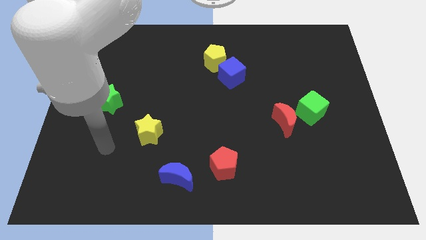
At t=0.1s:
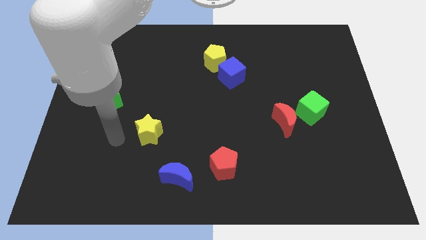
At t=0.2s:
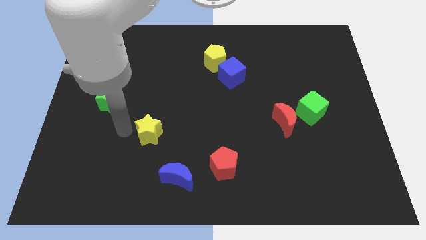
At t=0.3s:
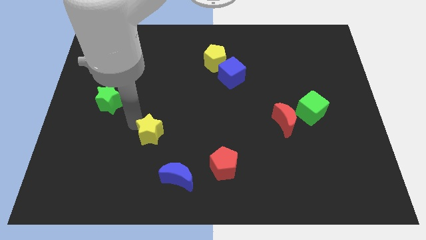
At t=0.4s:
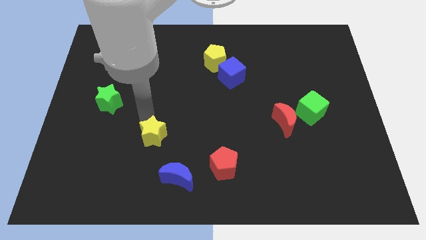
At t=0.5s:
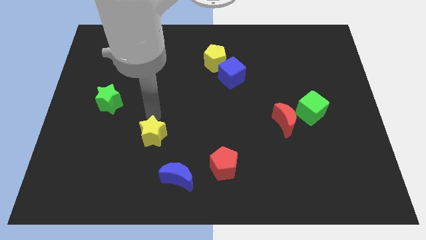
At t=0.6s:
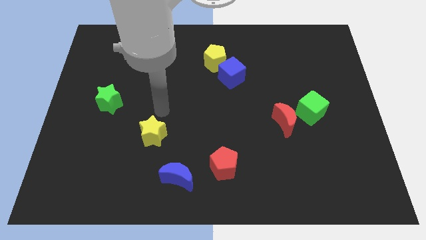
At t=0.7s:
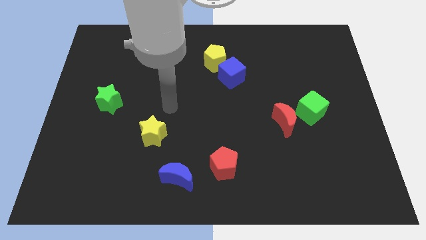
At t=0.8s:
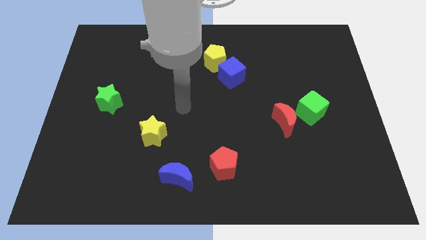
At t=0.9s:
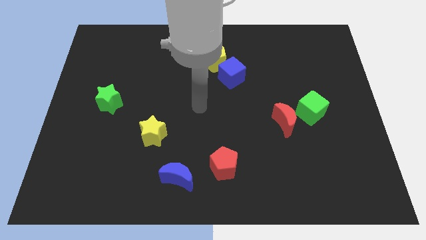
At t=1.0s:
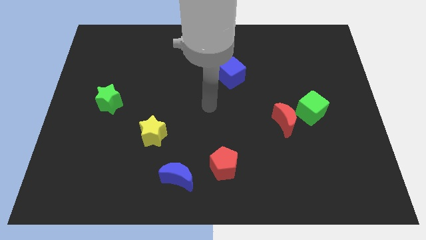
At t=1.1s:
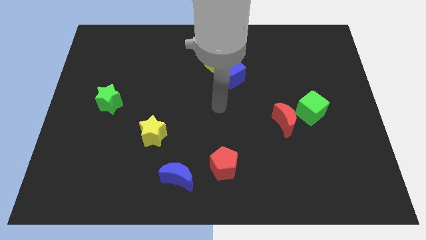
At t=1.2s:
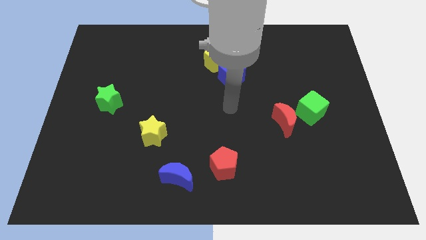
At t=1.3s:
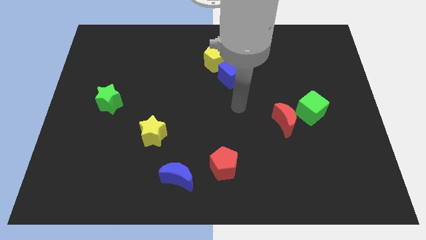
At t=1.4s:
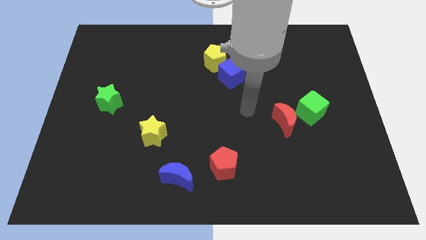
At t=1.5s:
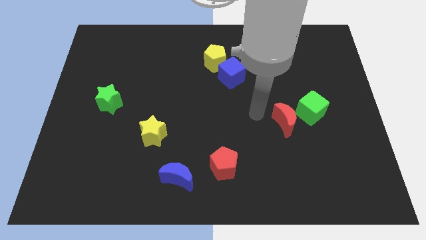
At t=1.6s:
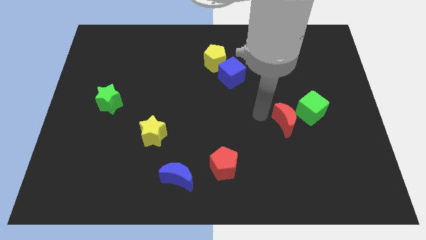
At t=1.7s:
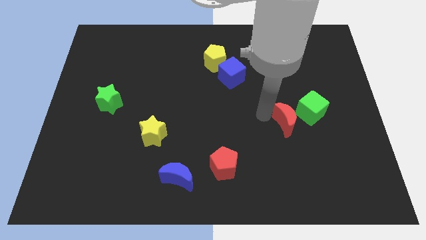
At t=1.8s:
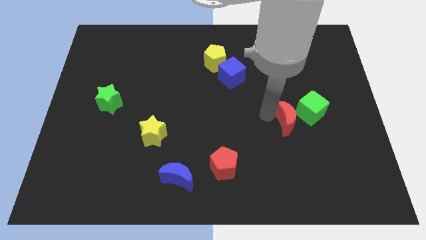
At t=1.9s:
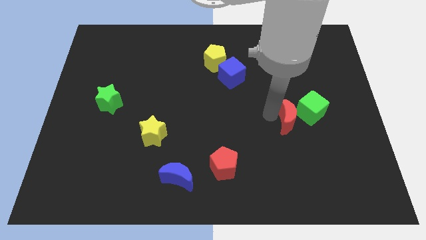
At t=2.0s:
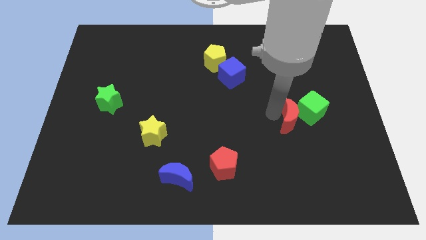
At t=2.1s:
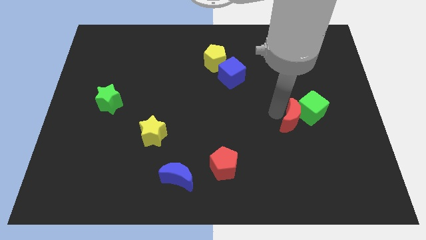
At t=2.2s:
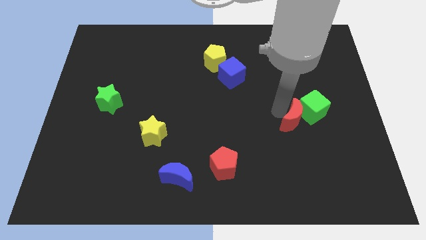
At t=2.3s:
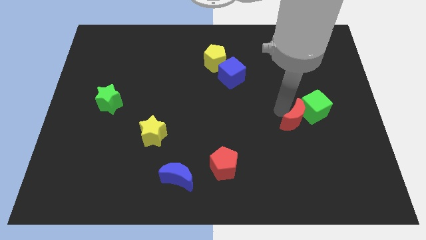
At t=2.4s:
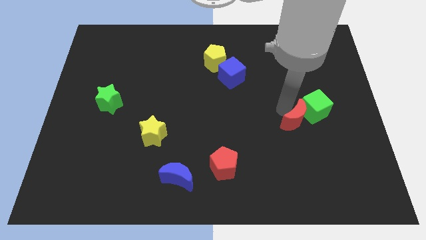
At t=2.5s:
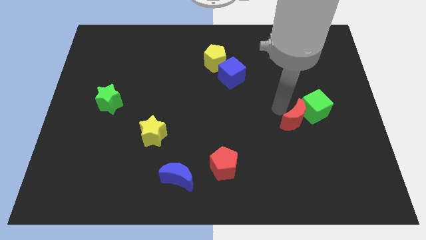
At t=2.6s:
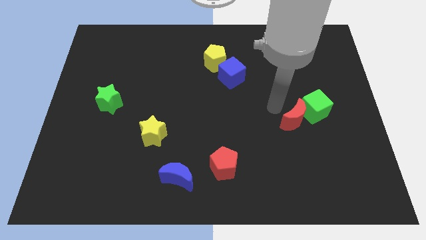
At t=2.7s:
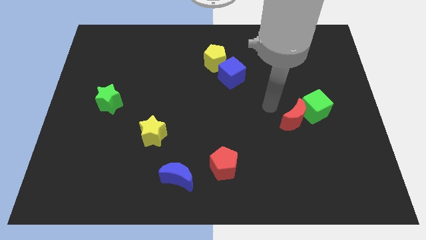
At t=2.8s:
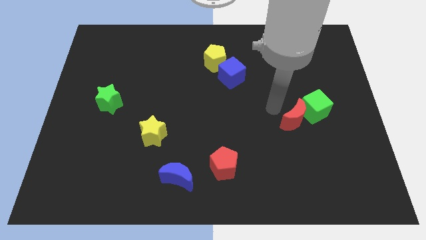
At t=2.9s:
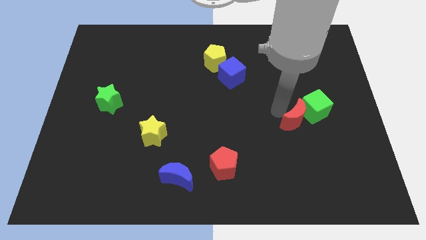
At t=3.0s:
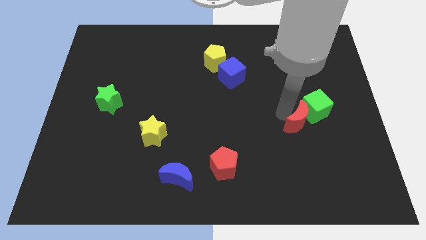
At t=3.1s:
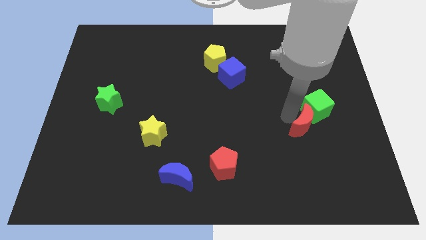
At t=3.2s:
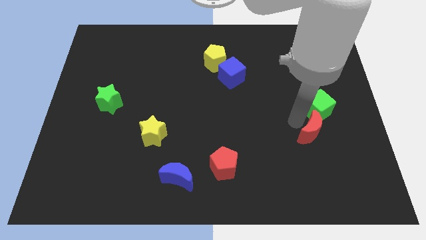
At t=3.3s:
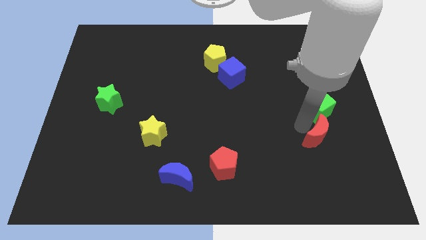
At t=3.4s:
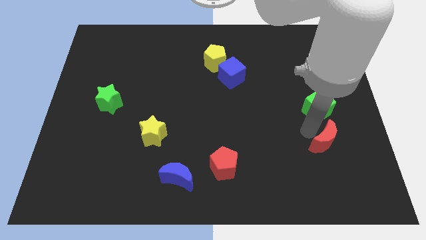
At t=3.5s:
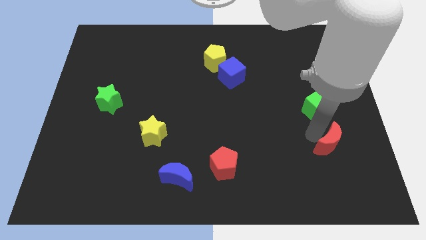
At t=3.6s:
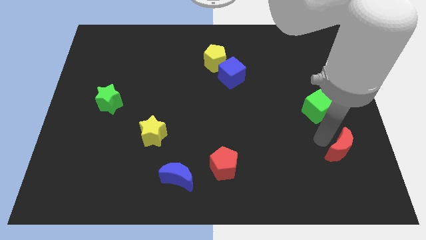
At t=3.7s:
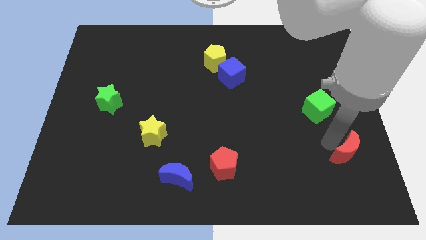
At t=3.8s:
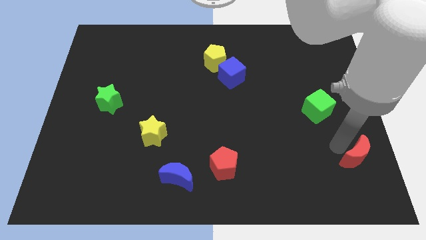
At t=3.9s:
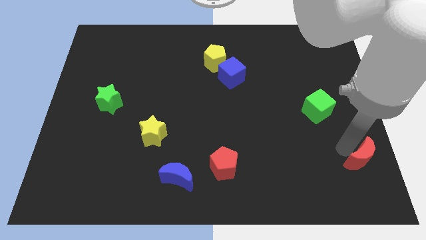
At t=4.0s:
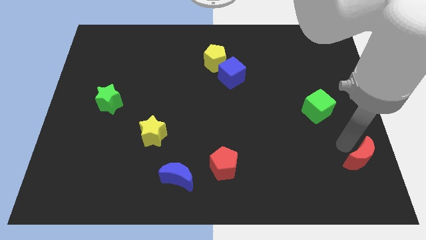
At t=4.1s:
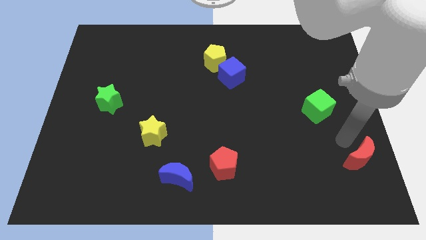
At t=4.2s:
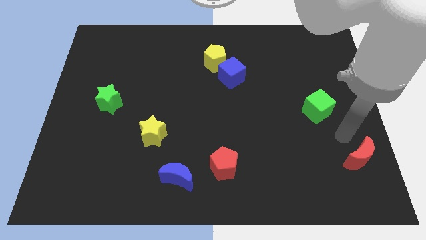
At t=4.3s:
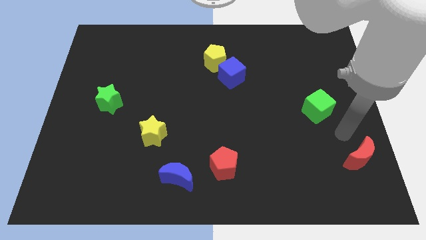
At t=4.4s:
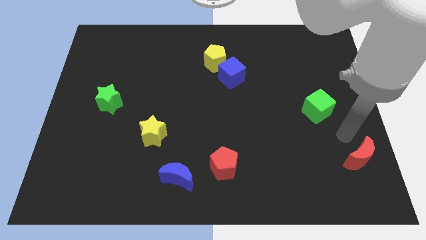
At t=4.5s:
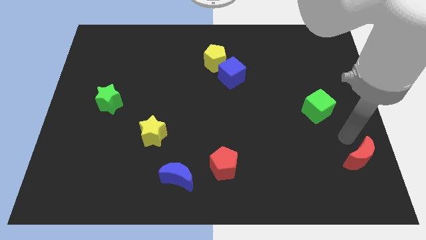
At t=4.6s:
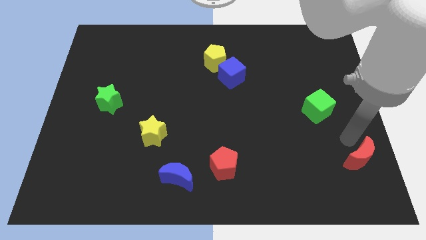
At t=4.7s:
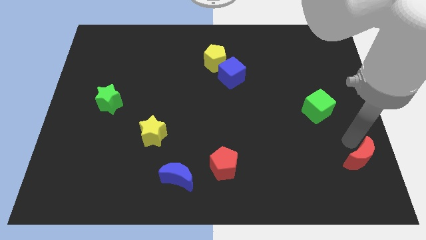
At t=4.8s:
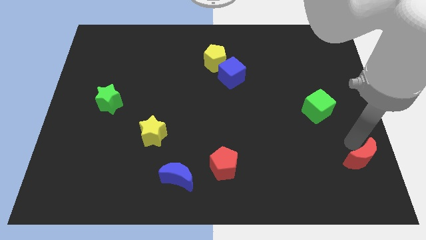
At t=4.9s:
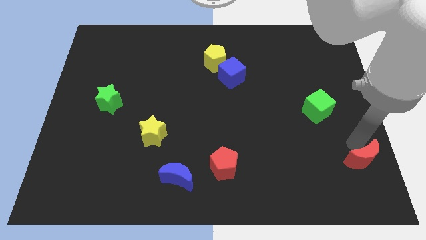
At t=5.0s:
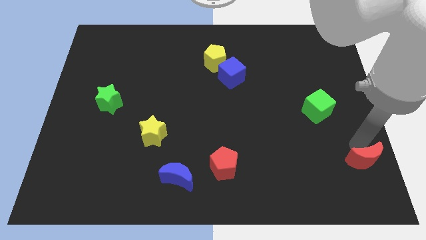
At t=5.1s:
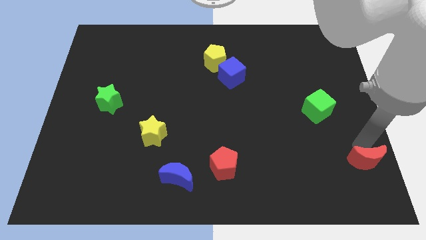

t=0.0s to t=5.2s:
move the red moon to the bottom right

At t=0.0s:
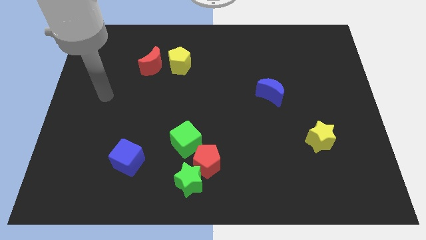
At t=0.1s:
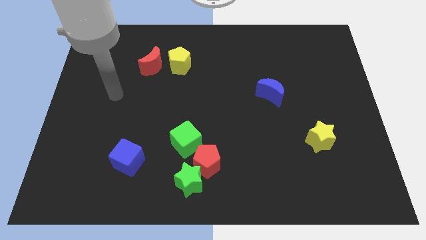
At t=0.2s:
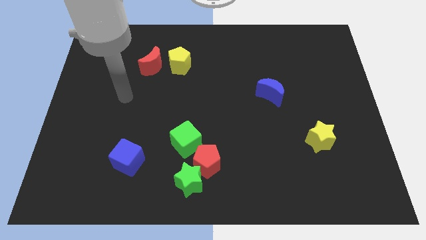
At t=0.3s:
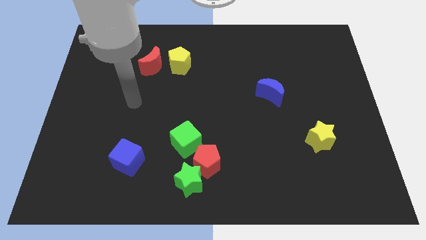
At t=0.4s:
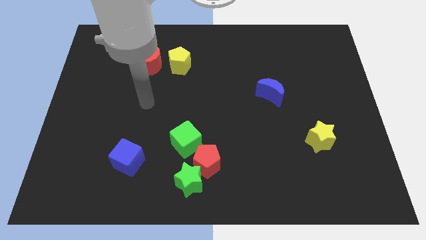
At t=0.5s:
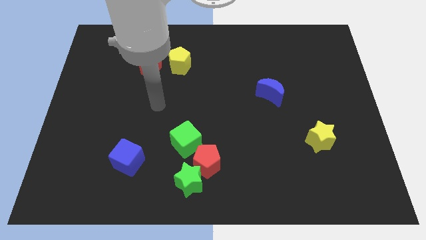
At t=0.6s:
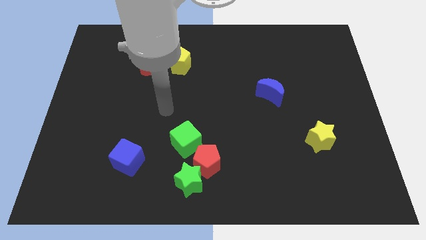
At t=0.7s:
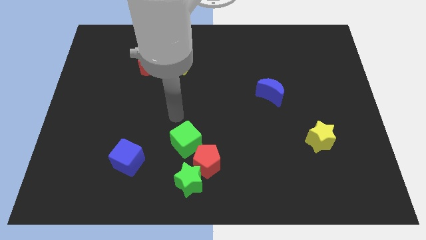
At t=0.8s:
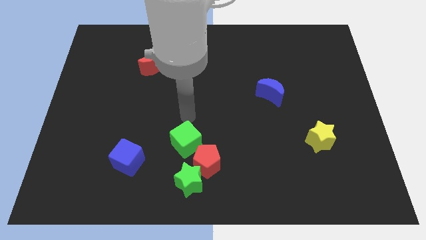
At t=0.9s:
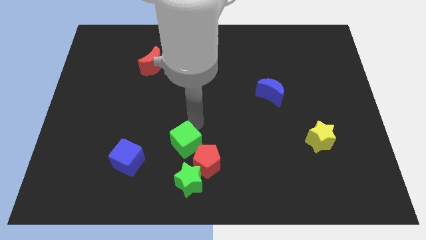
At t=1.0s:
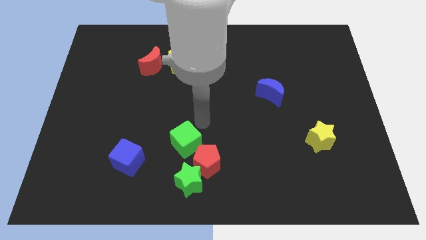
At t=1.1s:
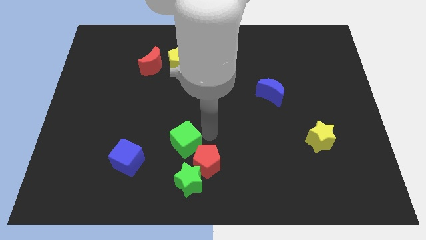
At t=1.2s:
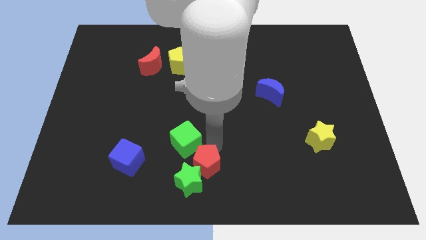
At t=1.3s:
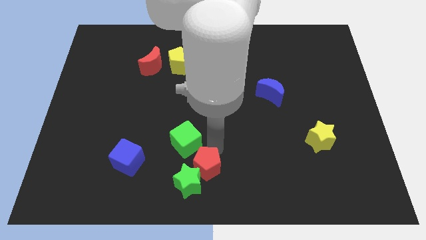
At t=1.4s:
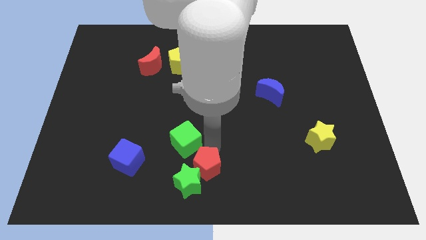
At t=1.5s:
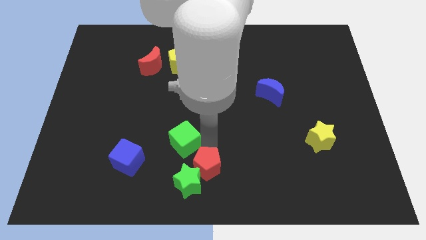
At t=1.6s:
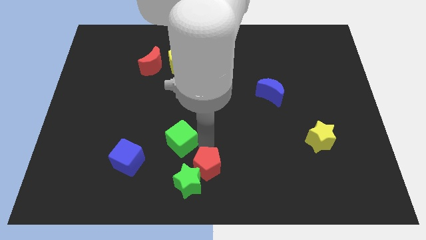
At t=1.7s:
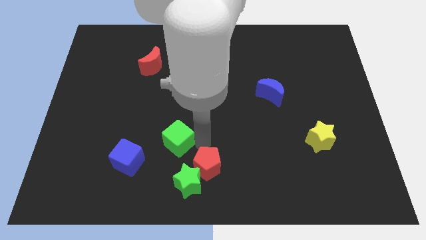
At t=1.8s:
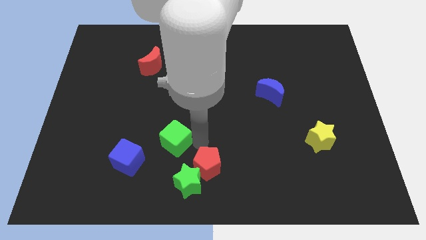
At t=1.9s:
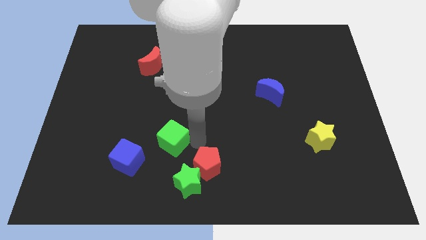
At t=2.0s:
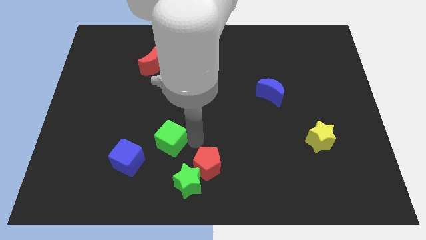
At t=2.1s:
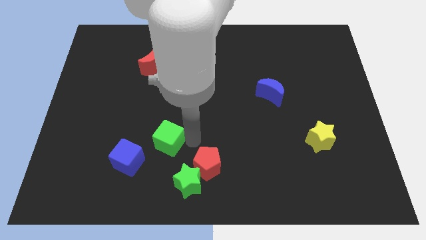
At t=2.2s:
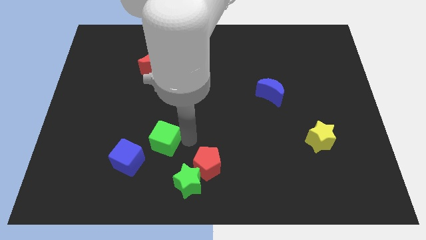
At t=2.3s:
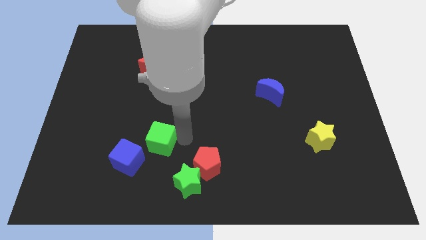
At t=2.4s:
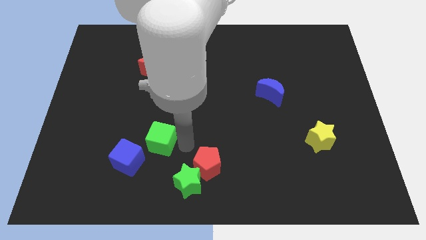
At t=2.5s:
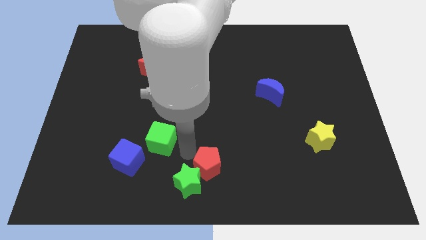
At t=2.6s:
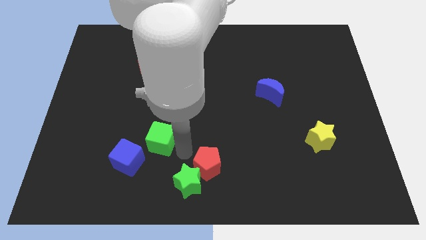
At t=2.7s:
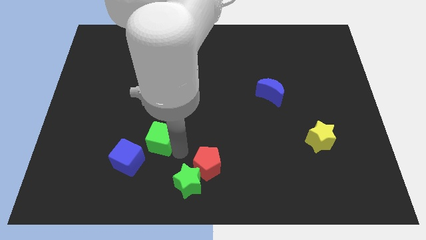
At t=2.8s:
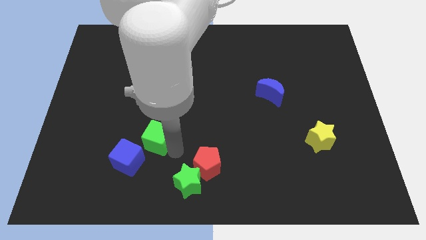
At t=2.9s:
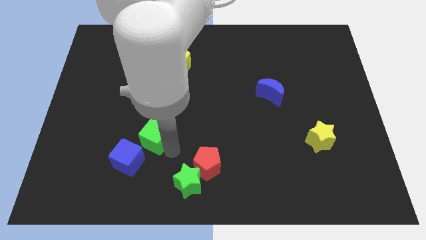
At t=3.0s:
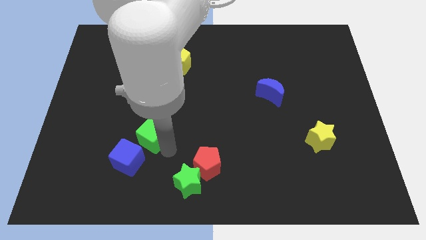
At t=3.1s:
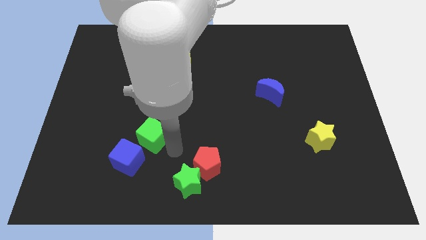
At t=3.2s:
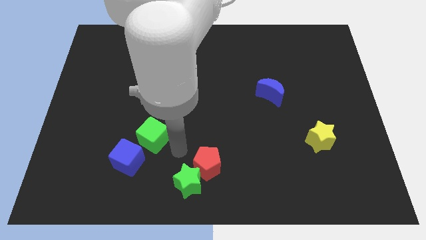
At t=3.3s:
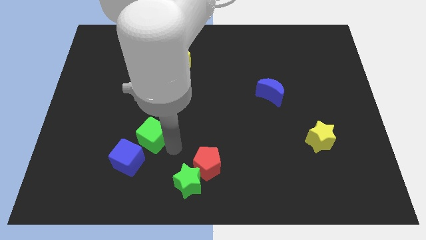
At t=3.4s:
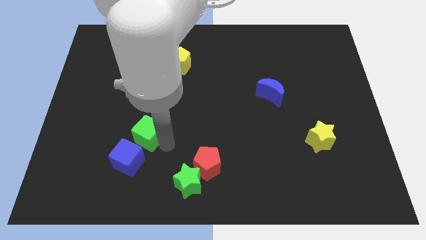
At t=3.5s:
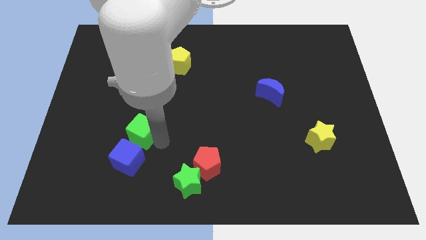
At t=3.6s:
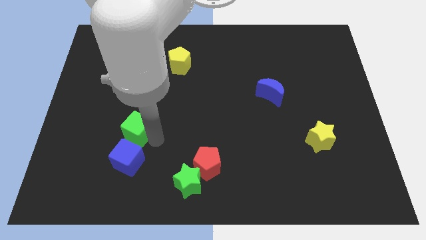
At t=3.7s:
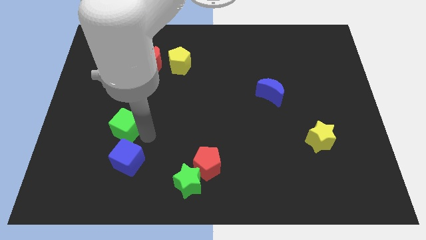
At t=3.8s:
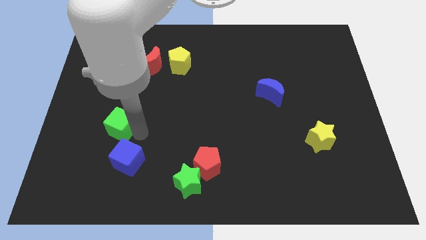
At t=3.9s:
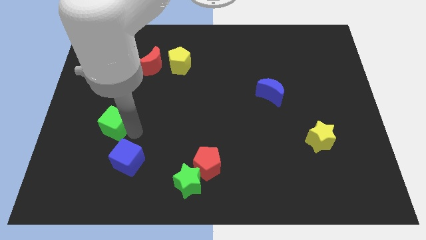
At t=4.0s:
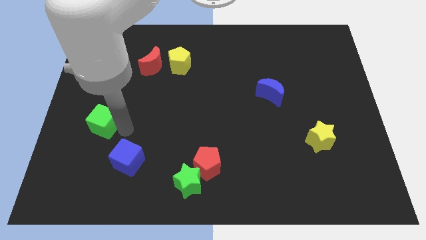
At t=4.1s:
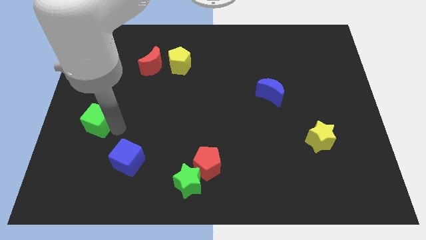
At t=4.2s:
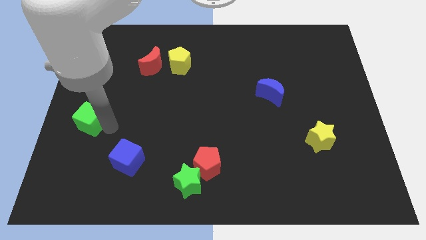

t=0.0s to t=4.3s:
slide the green cube to the left side
